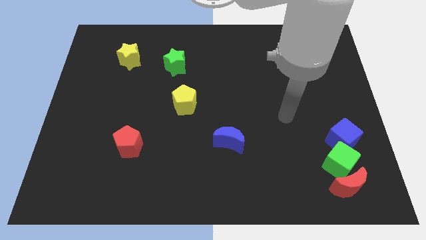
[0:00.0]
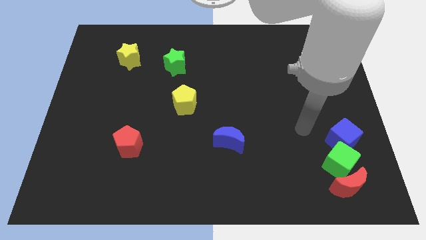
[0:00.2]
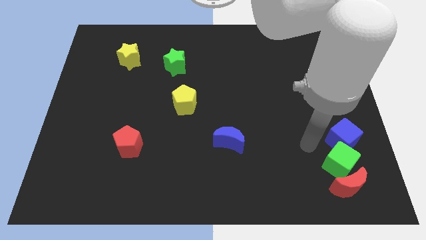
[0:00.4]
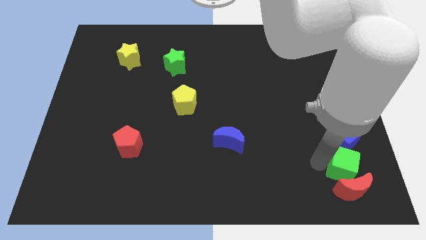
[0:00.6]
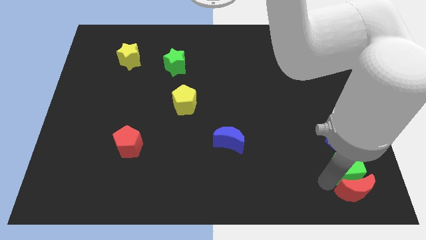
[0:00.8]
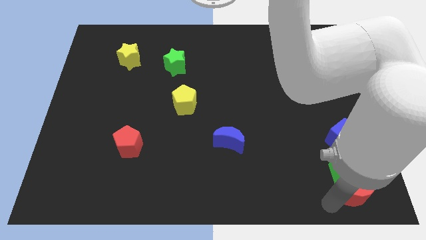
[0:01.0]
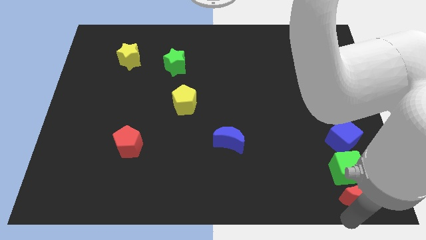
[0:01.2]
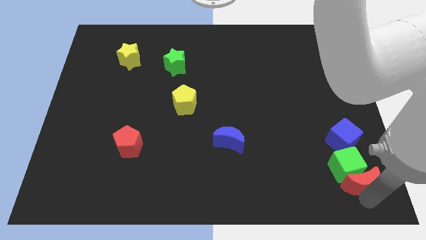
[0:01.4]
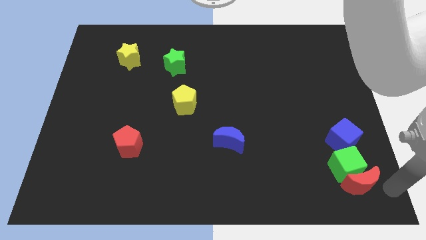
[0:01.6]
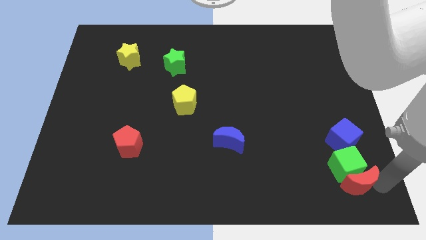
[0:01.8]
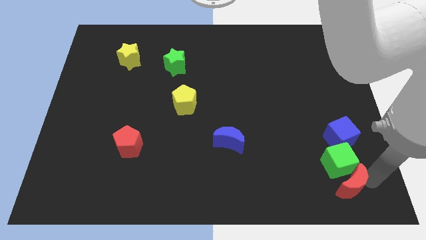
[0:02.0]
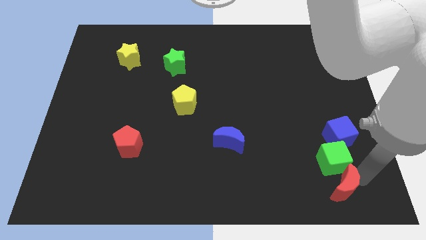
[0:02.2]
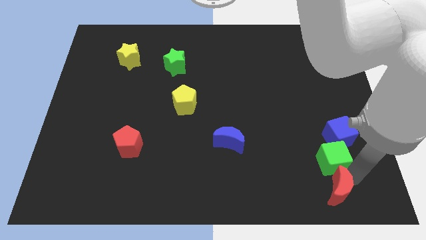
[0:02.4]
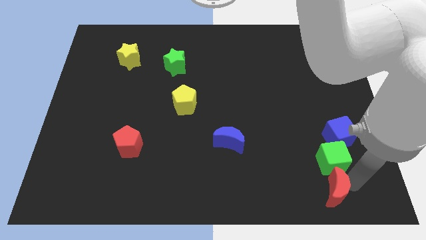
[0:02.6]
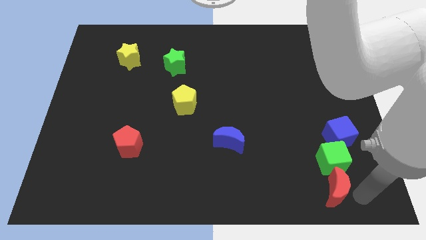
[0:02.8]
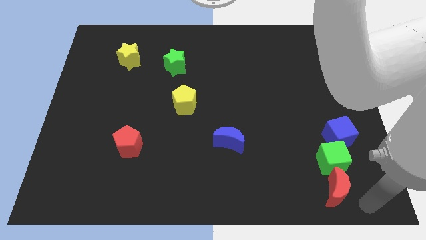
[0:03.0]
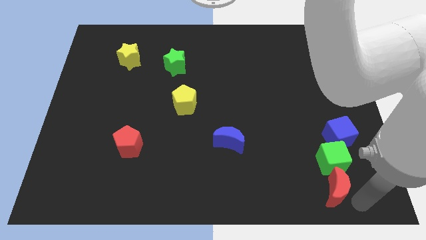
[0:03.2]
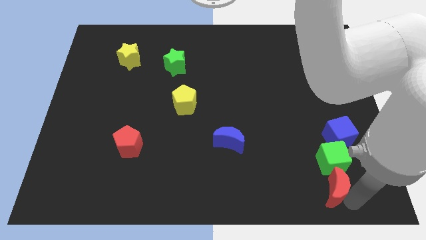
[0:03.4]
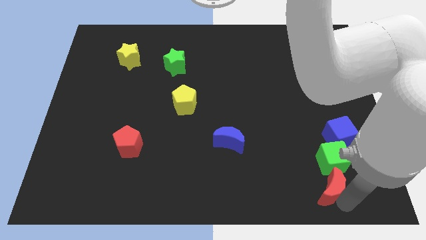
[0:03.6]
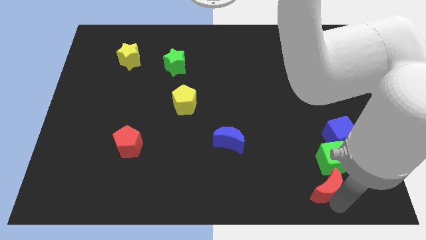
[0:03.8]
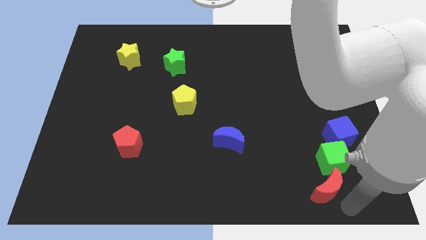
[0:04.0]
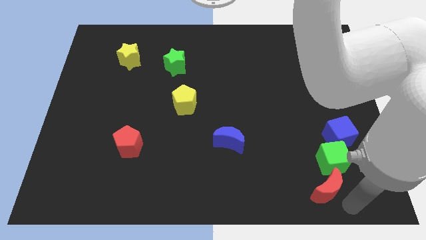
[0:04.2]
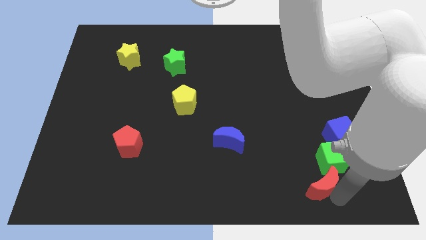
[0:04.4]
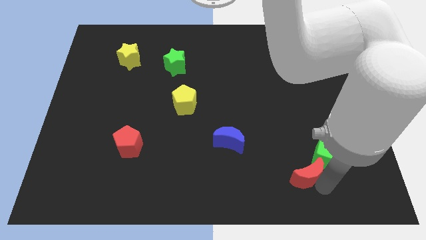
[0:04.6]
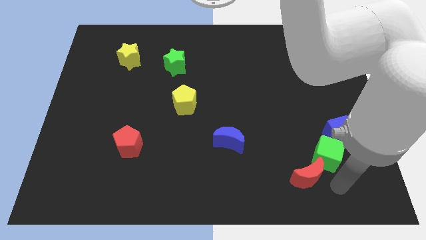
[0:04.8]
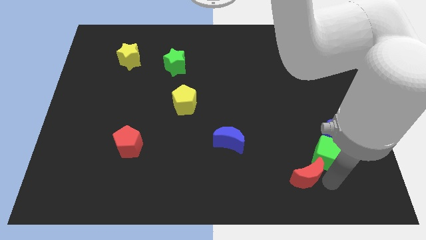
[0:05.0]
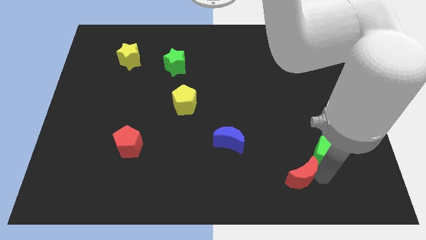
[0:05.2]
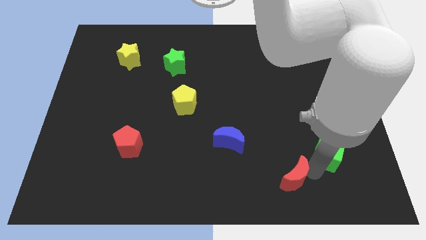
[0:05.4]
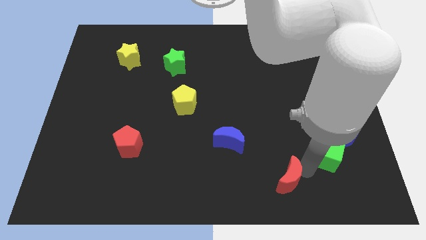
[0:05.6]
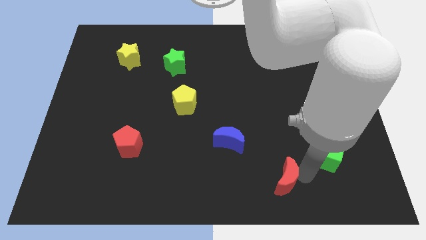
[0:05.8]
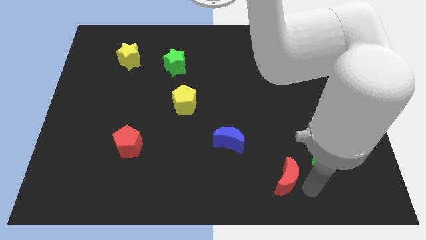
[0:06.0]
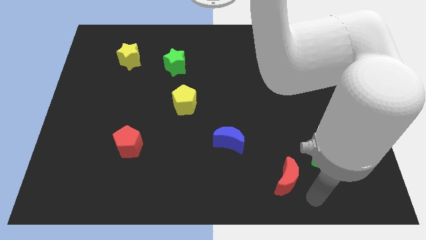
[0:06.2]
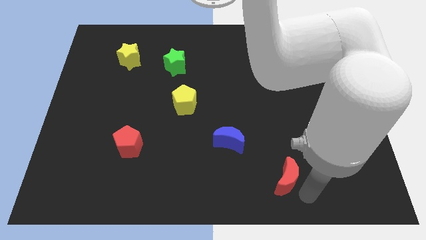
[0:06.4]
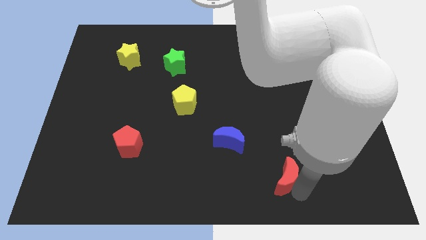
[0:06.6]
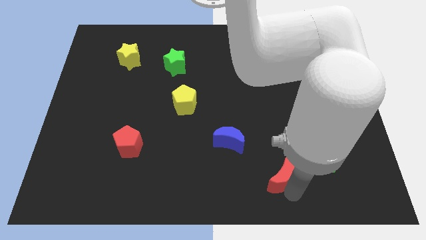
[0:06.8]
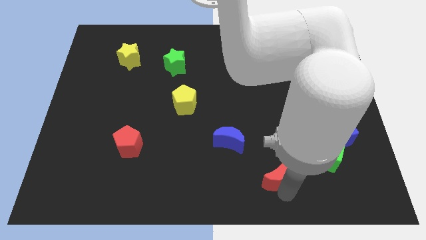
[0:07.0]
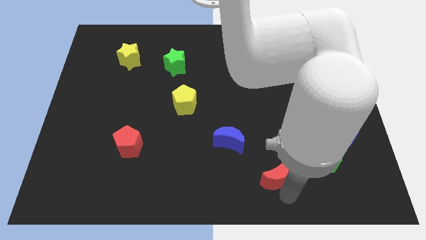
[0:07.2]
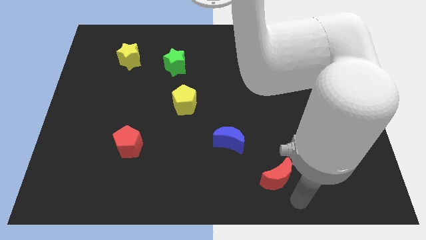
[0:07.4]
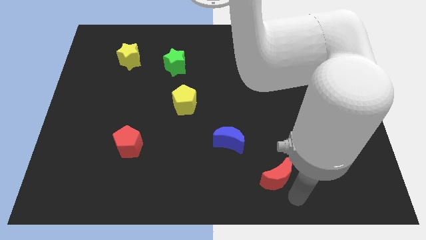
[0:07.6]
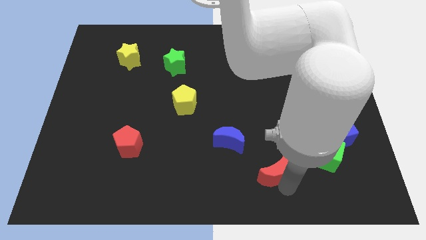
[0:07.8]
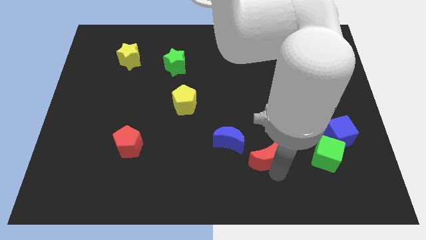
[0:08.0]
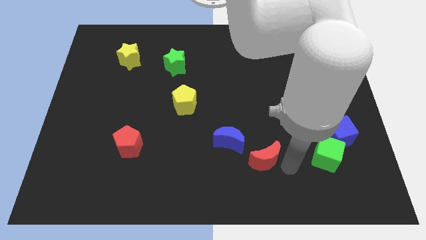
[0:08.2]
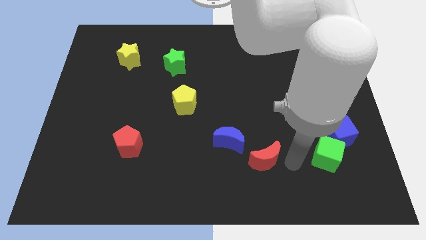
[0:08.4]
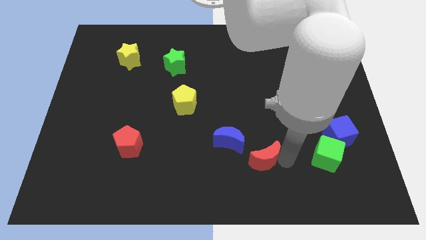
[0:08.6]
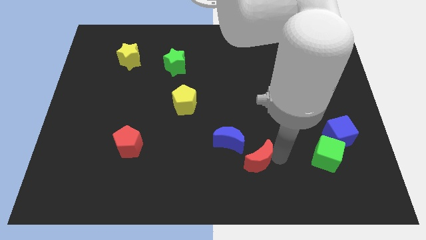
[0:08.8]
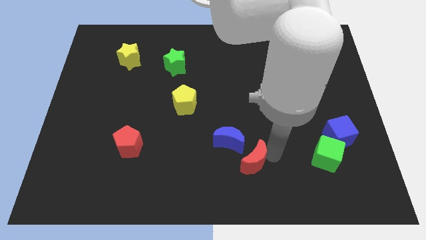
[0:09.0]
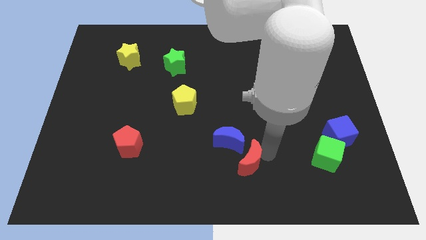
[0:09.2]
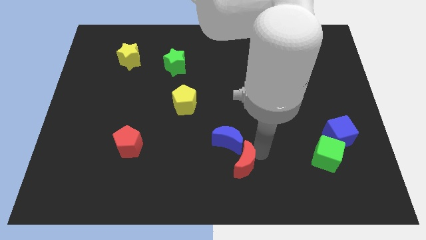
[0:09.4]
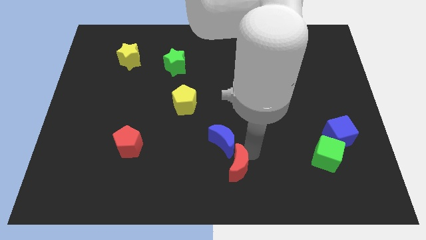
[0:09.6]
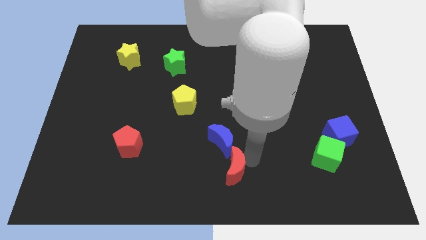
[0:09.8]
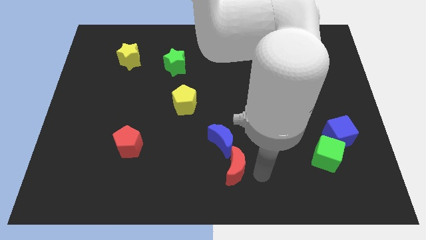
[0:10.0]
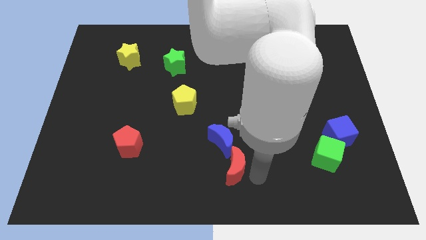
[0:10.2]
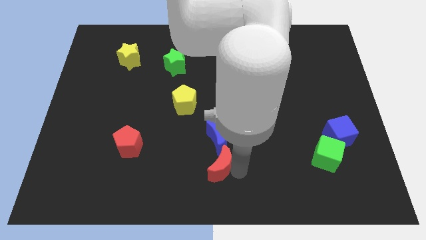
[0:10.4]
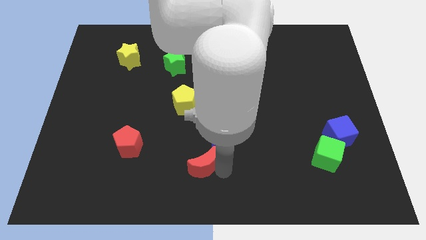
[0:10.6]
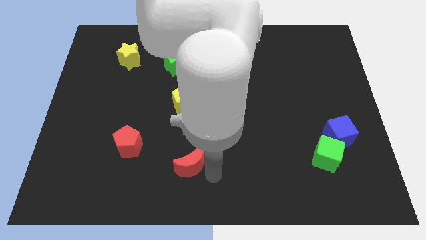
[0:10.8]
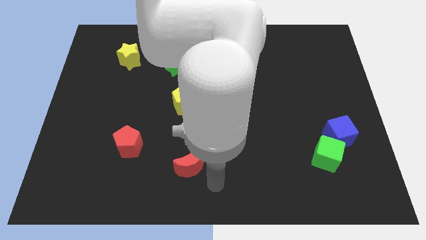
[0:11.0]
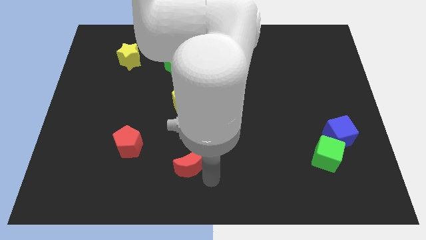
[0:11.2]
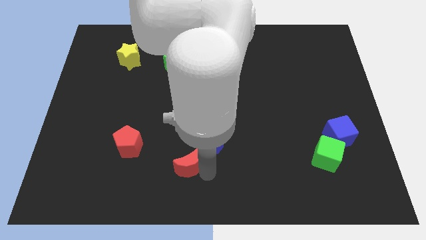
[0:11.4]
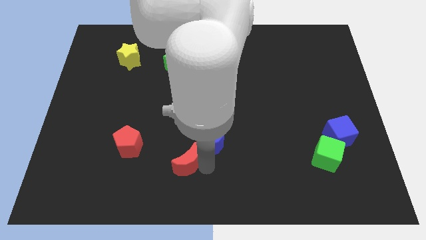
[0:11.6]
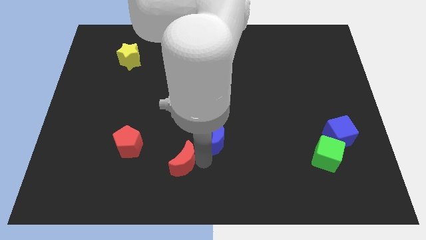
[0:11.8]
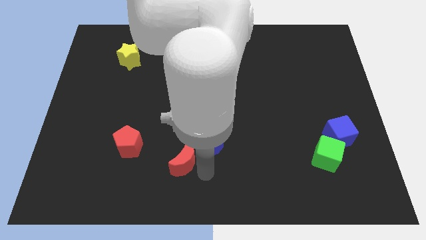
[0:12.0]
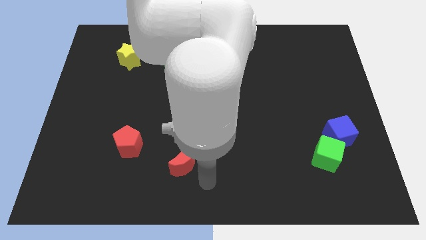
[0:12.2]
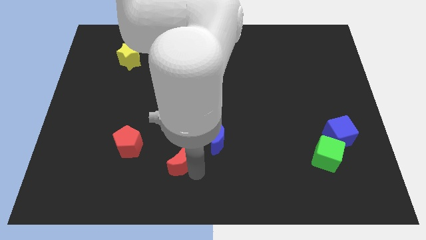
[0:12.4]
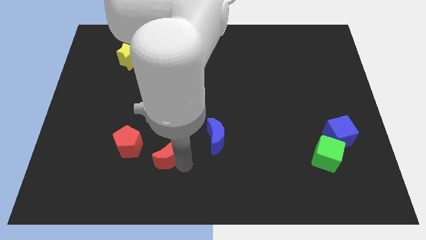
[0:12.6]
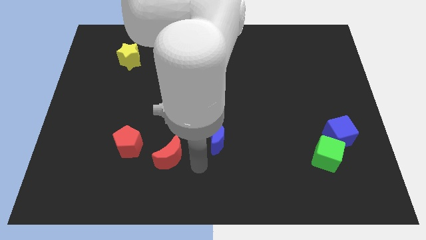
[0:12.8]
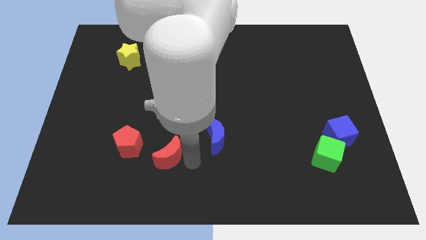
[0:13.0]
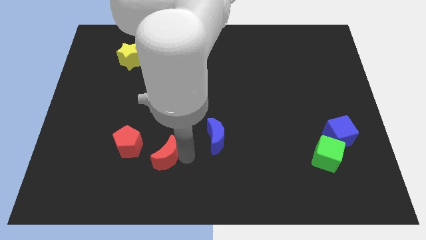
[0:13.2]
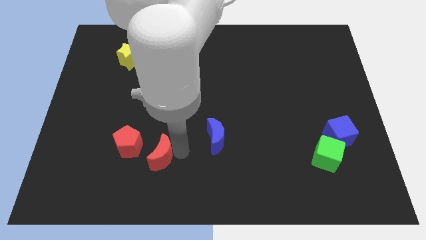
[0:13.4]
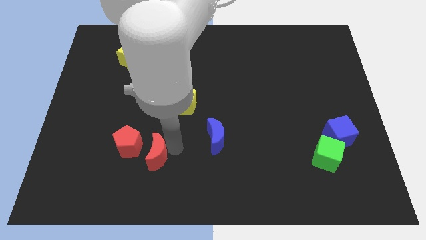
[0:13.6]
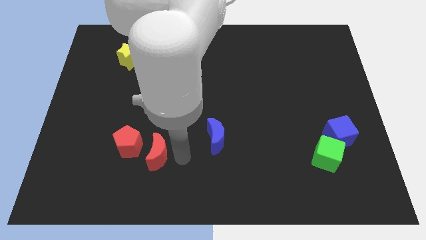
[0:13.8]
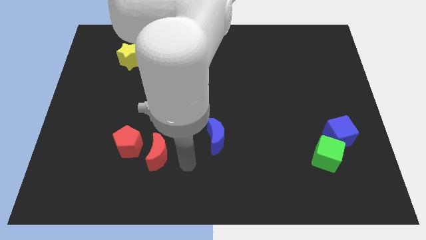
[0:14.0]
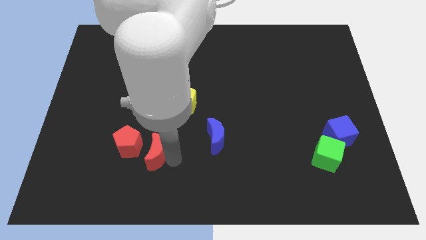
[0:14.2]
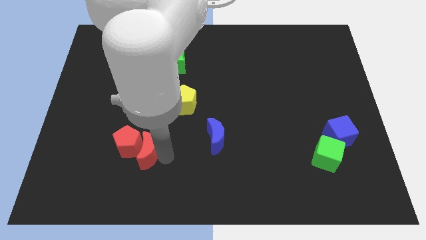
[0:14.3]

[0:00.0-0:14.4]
move the red moon close to the red pentagon
